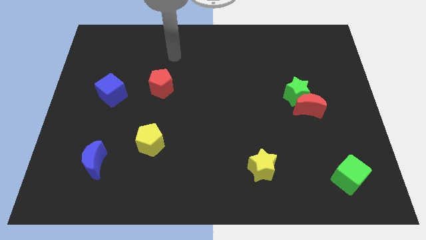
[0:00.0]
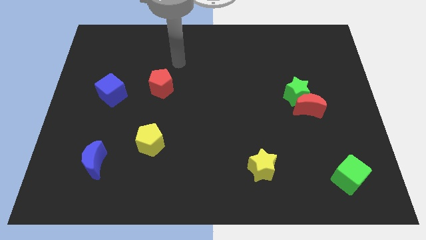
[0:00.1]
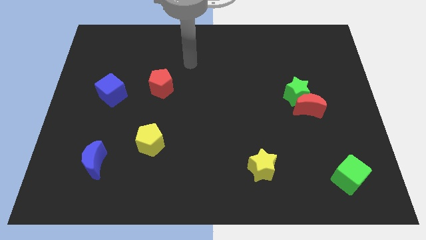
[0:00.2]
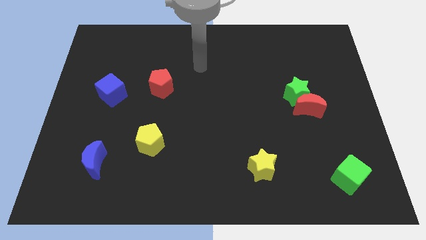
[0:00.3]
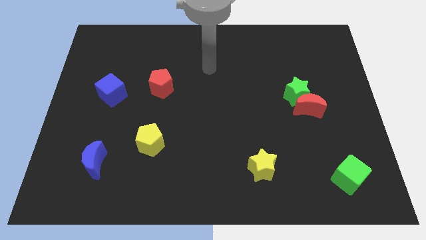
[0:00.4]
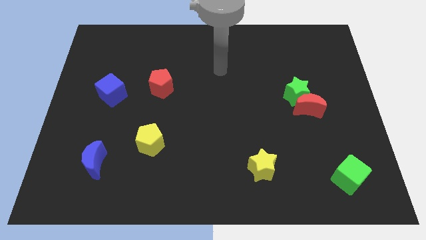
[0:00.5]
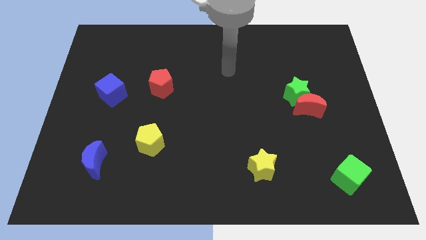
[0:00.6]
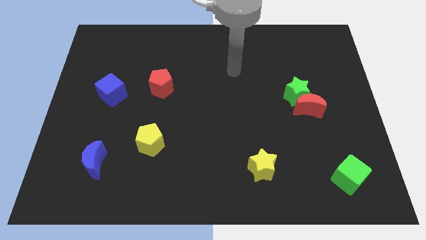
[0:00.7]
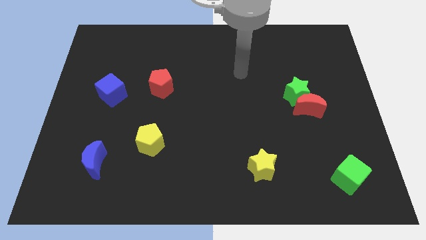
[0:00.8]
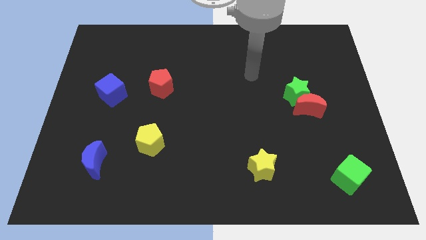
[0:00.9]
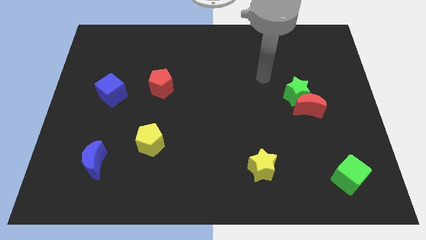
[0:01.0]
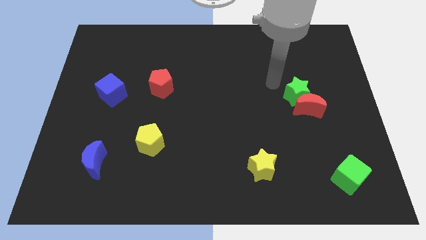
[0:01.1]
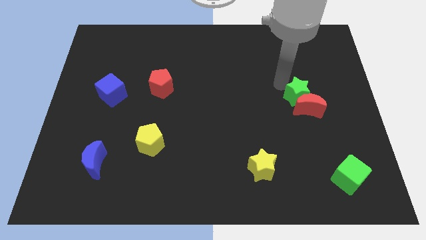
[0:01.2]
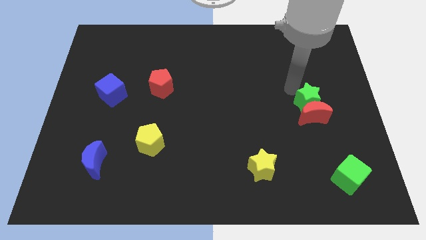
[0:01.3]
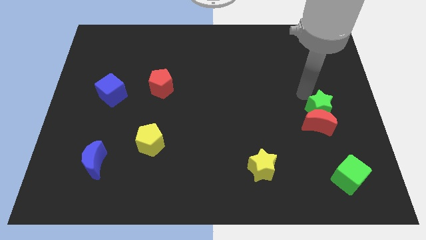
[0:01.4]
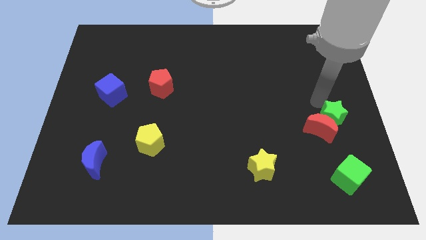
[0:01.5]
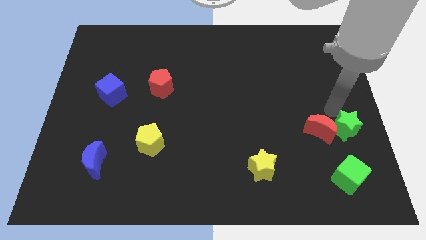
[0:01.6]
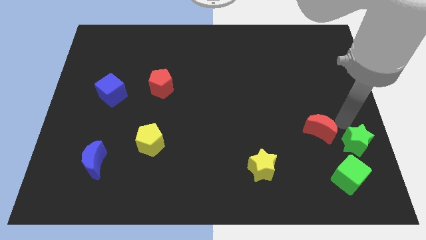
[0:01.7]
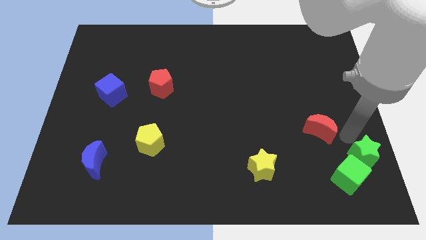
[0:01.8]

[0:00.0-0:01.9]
pull the red moon apart from the green star

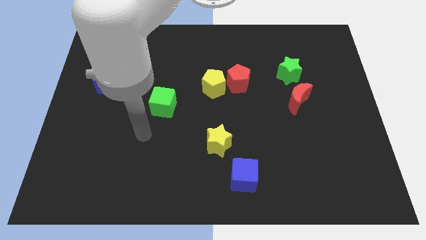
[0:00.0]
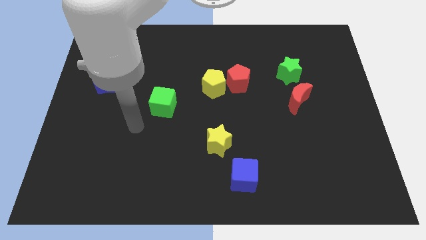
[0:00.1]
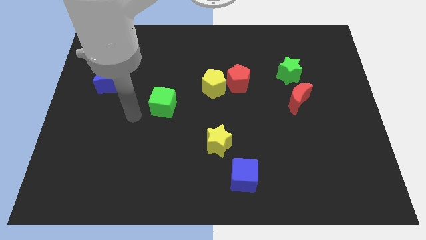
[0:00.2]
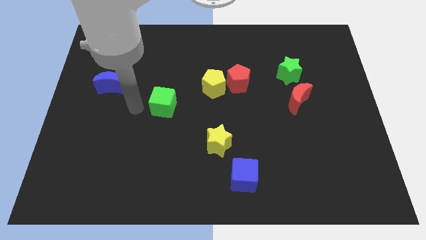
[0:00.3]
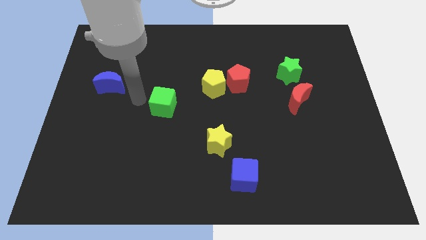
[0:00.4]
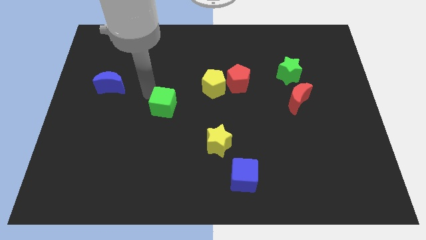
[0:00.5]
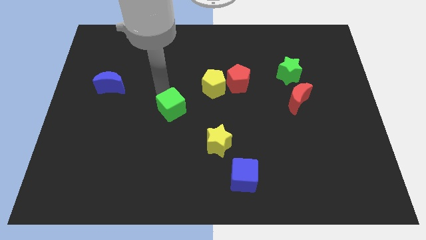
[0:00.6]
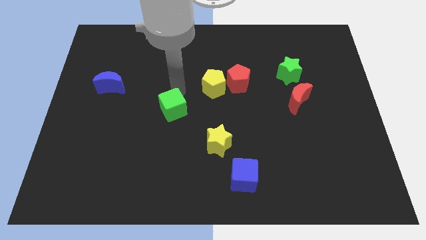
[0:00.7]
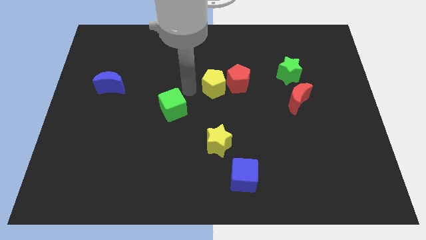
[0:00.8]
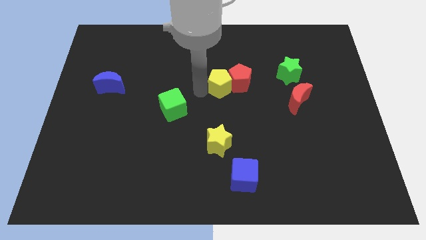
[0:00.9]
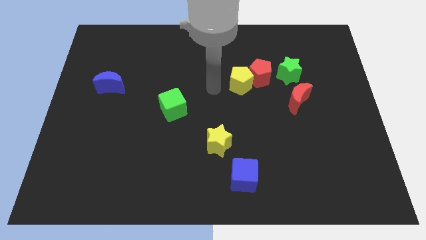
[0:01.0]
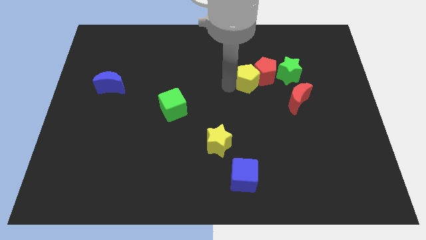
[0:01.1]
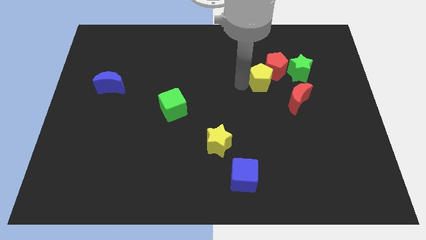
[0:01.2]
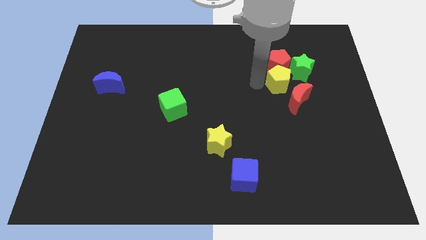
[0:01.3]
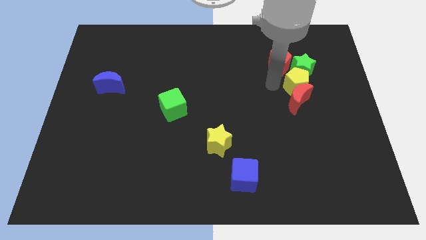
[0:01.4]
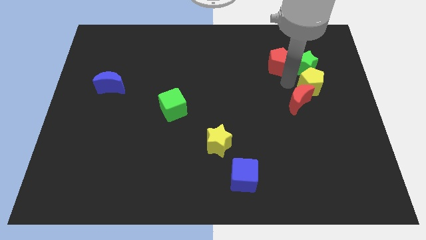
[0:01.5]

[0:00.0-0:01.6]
move the red pentagon away from the yellow pentagon

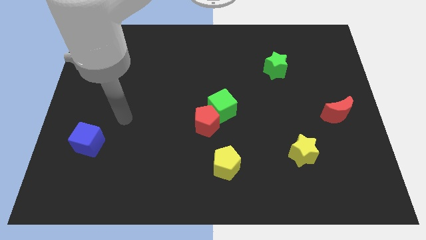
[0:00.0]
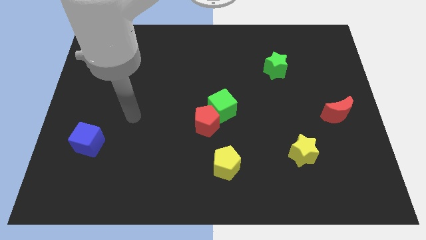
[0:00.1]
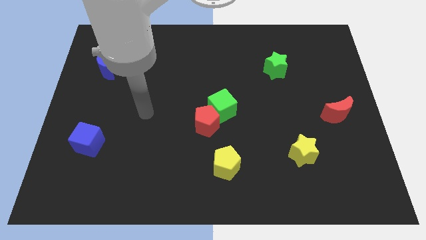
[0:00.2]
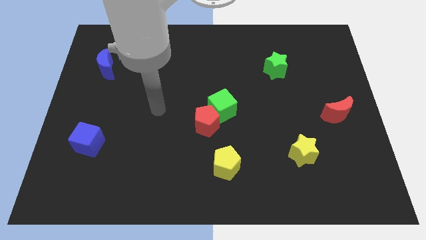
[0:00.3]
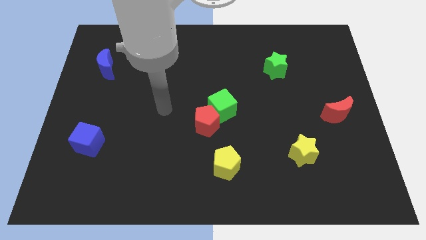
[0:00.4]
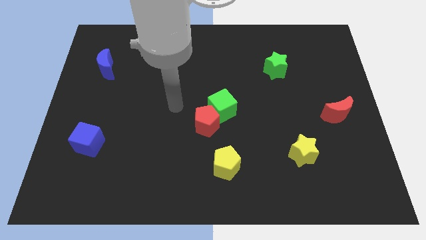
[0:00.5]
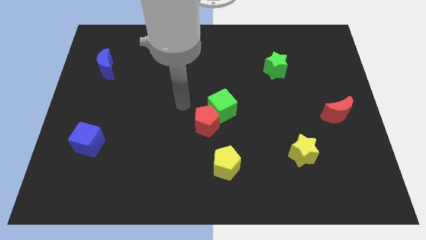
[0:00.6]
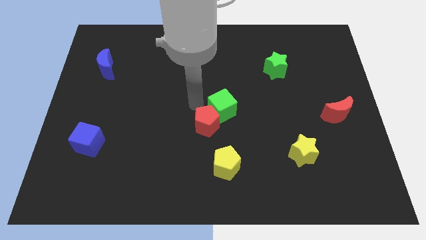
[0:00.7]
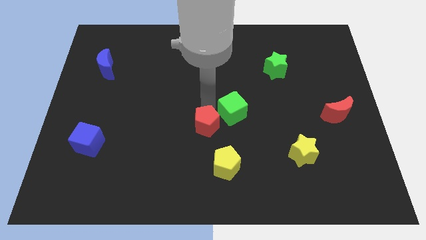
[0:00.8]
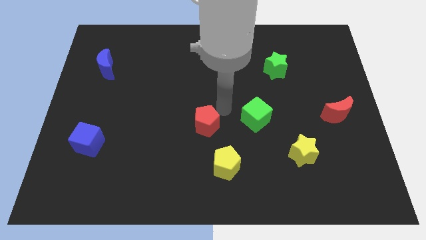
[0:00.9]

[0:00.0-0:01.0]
pull the red pentagon apart from the green cube

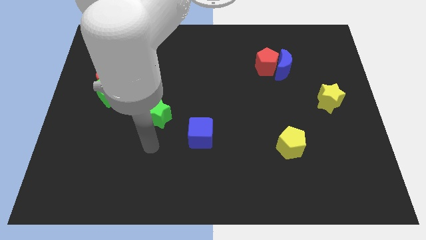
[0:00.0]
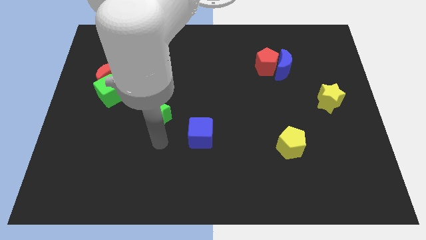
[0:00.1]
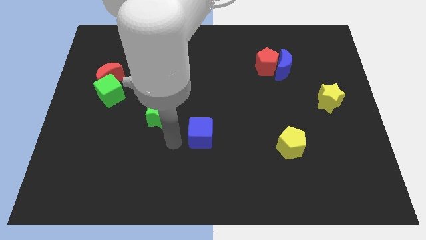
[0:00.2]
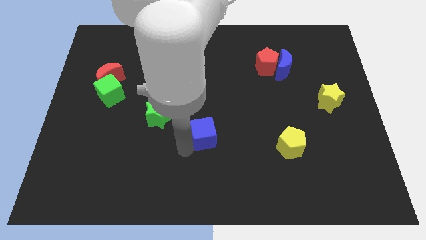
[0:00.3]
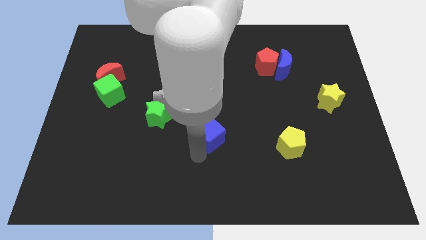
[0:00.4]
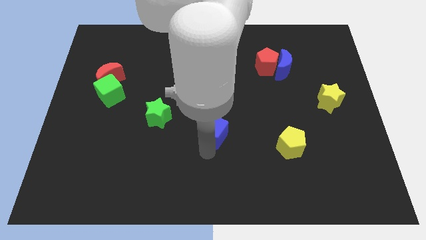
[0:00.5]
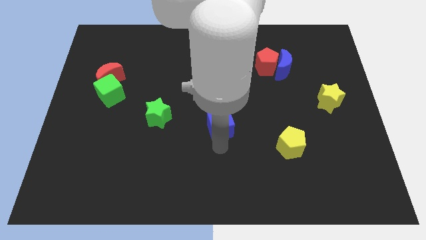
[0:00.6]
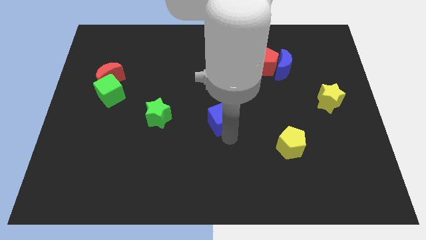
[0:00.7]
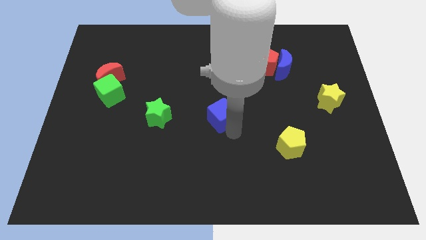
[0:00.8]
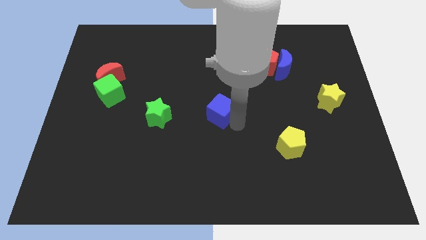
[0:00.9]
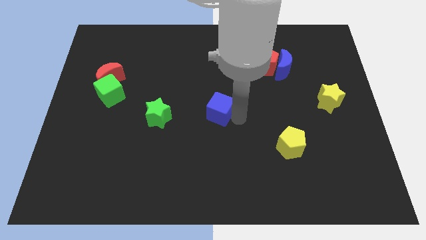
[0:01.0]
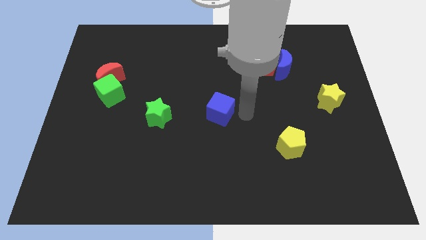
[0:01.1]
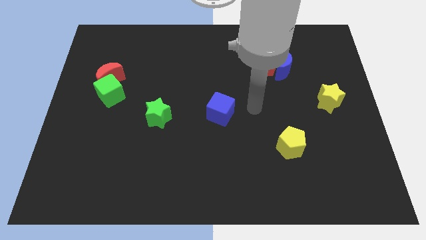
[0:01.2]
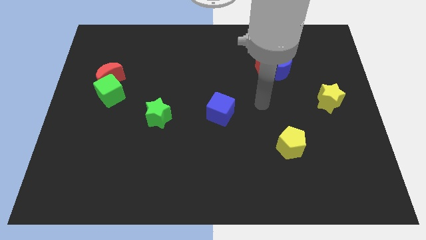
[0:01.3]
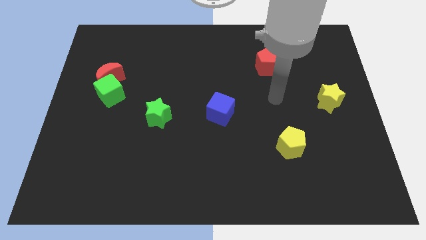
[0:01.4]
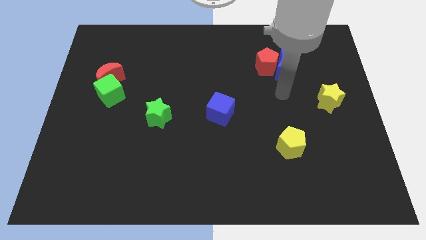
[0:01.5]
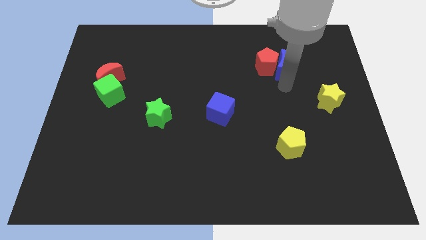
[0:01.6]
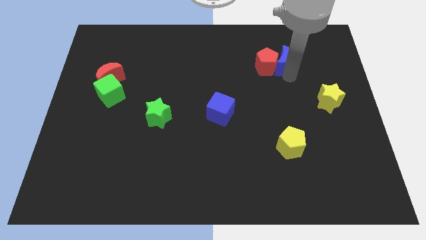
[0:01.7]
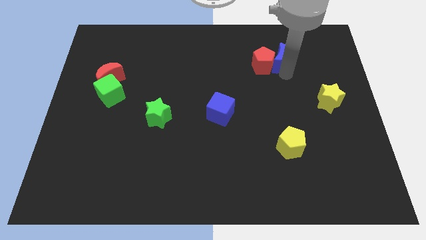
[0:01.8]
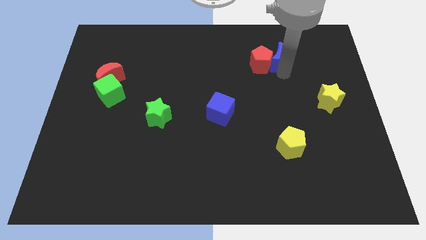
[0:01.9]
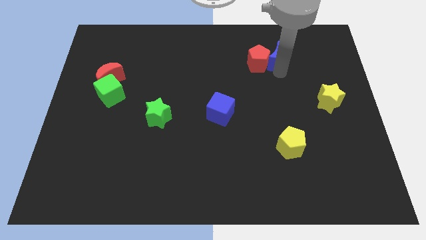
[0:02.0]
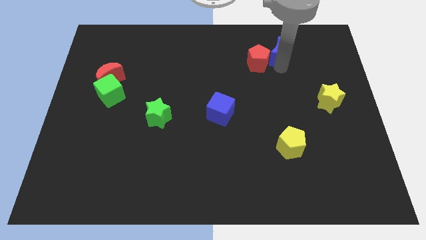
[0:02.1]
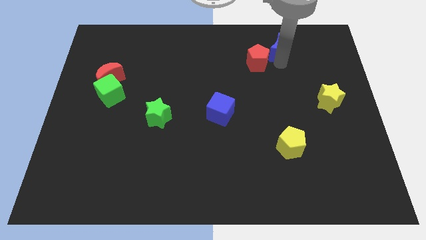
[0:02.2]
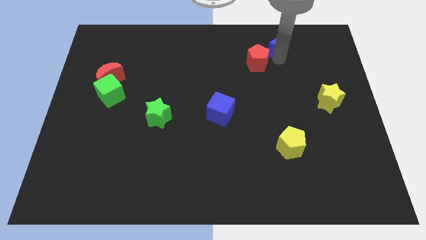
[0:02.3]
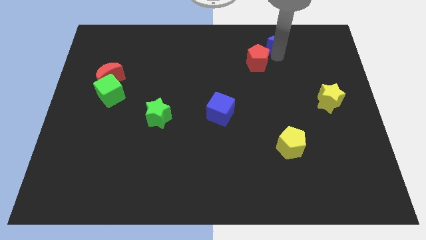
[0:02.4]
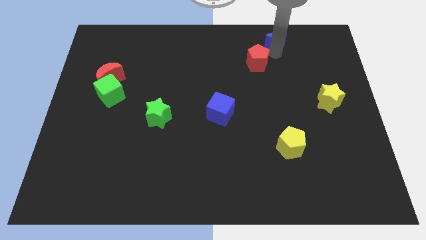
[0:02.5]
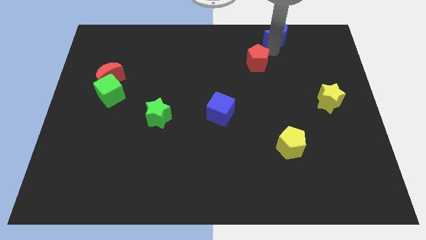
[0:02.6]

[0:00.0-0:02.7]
separate the red pentagon from the blue moon

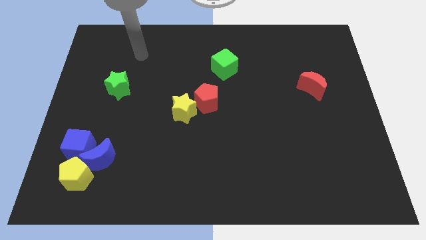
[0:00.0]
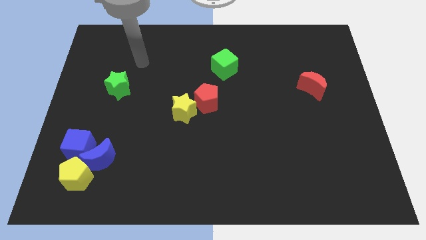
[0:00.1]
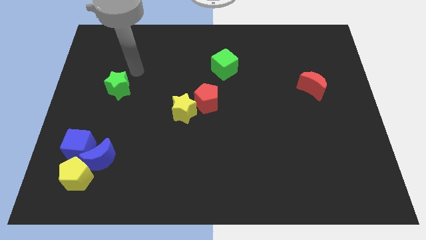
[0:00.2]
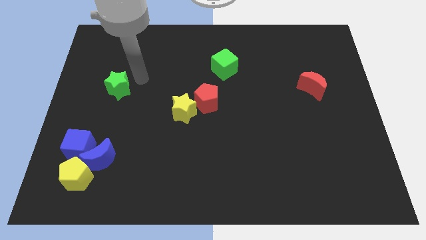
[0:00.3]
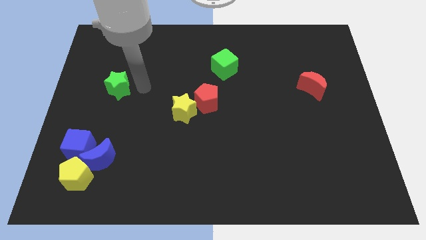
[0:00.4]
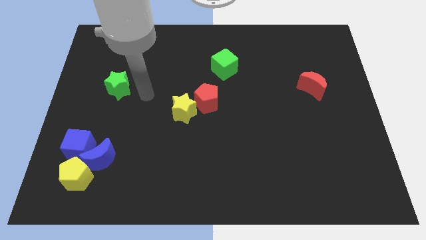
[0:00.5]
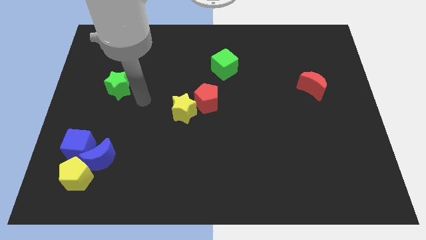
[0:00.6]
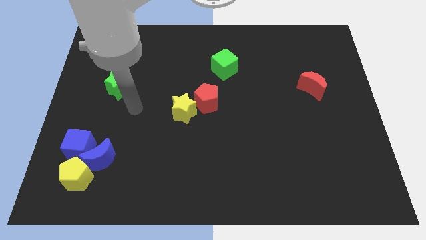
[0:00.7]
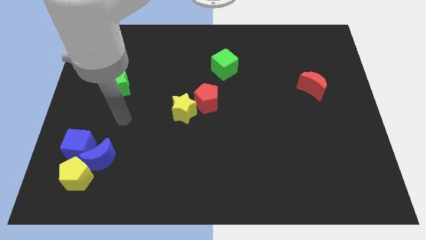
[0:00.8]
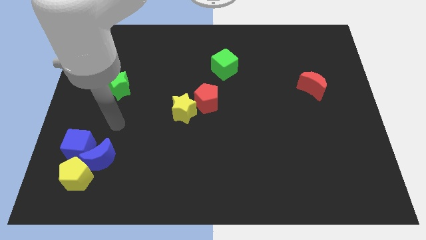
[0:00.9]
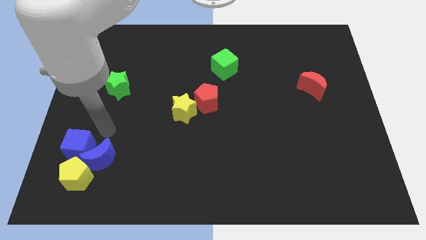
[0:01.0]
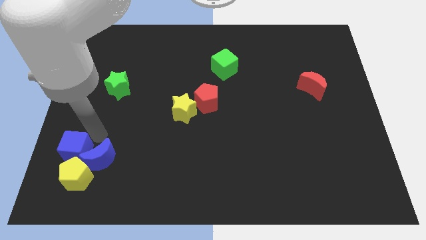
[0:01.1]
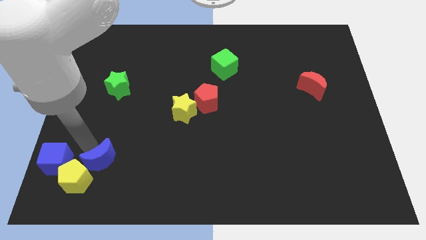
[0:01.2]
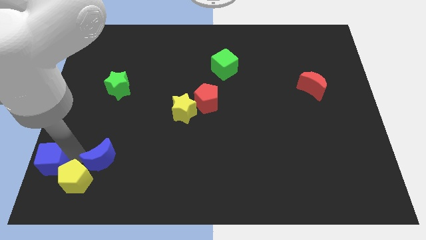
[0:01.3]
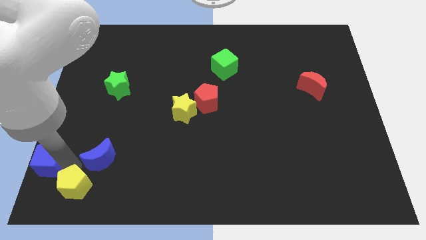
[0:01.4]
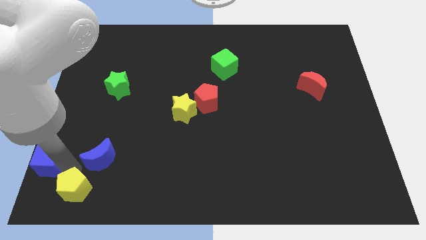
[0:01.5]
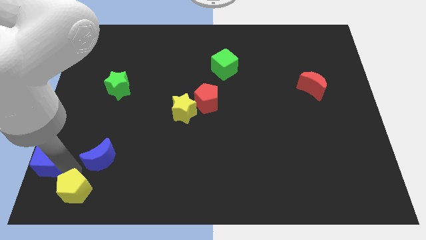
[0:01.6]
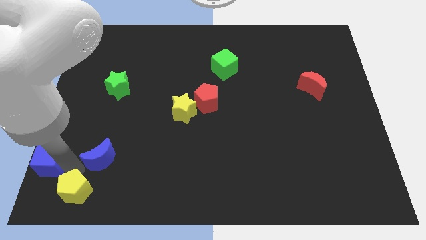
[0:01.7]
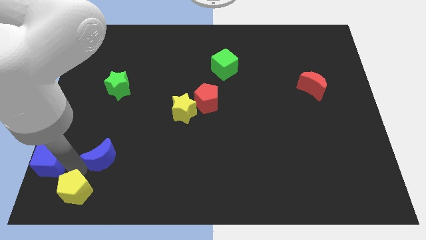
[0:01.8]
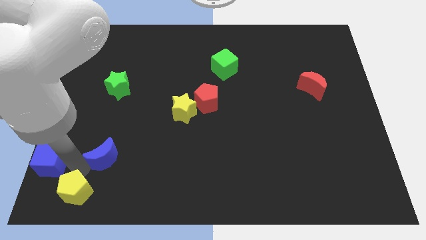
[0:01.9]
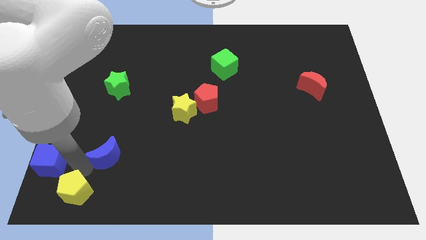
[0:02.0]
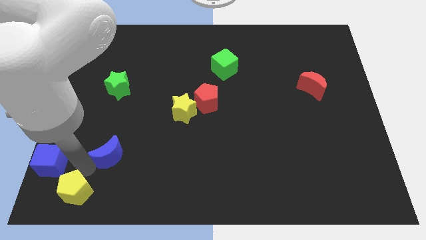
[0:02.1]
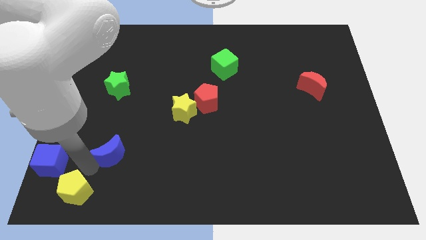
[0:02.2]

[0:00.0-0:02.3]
pull the blue moon apart from the blue cube and yellow pentagon
